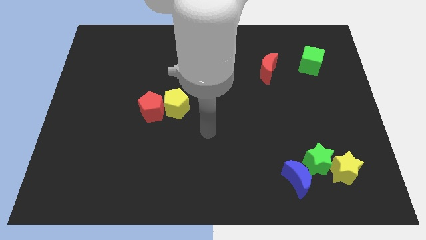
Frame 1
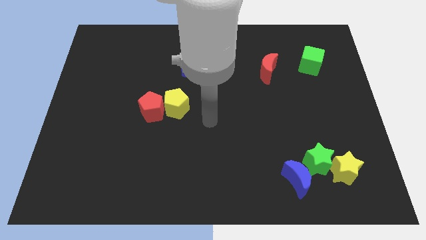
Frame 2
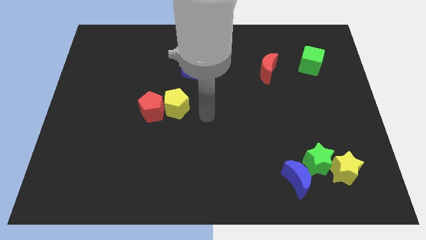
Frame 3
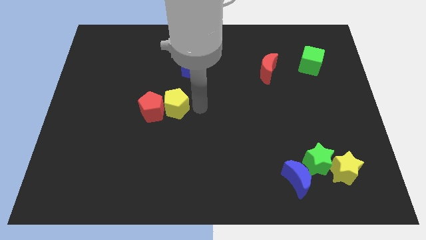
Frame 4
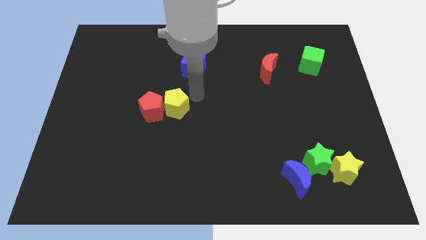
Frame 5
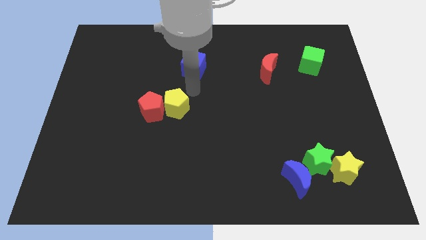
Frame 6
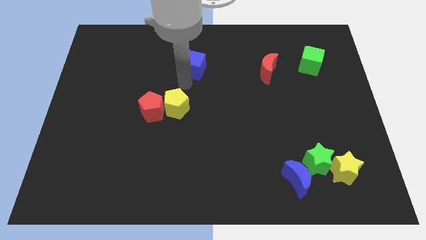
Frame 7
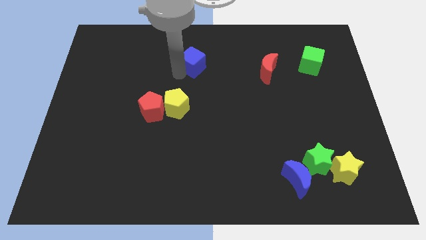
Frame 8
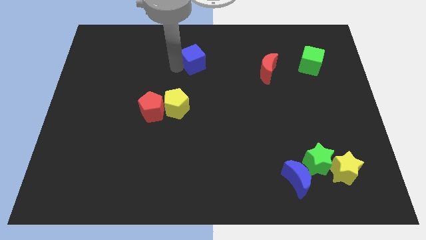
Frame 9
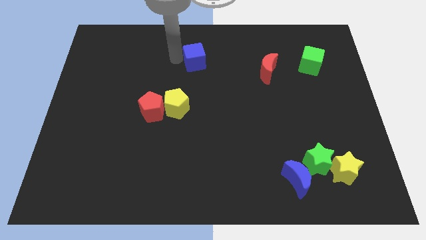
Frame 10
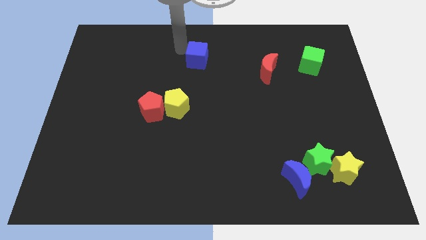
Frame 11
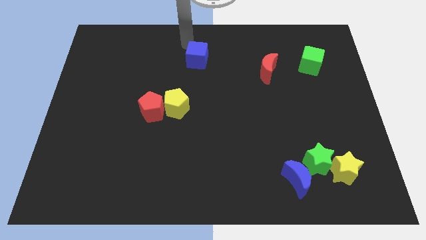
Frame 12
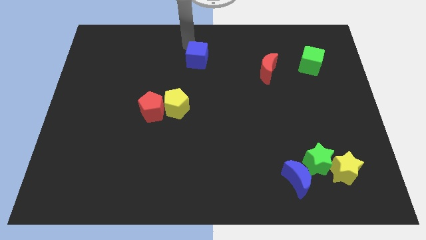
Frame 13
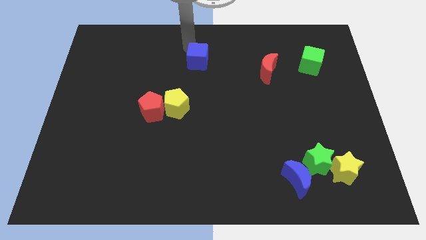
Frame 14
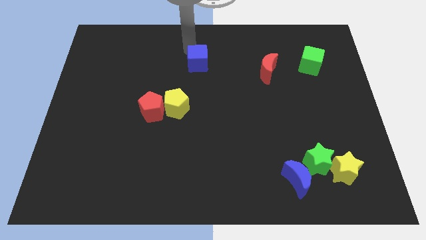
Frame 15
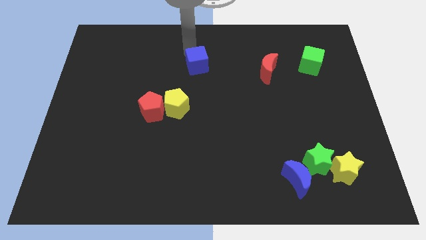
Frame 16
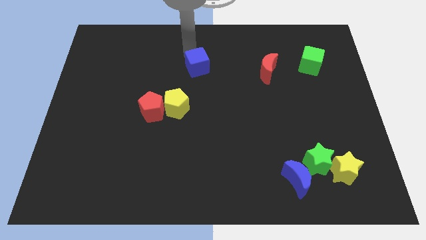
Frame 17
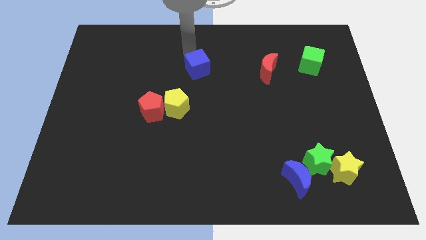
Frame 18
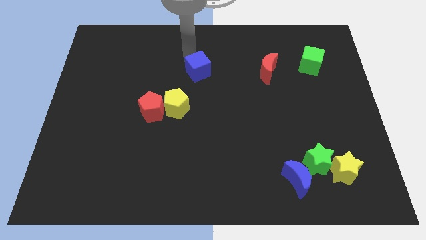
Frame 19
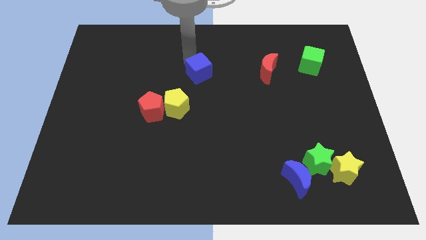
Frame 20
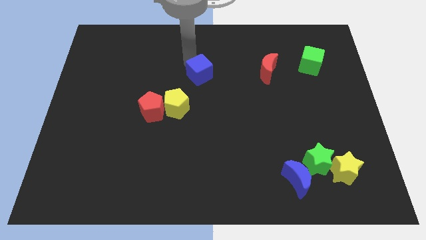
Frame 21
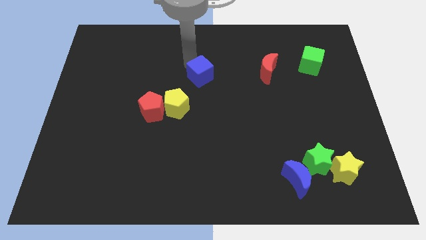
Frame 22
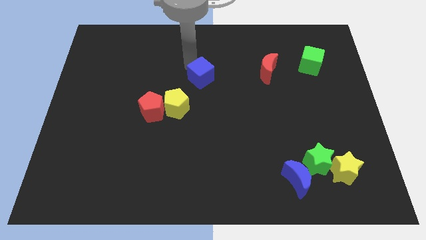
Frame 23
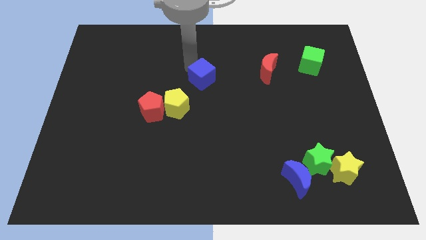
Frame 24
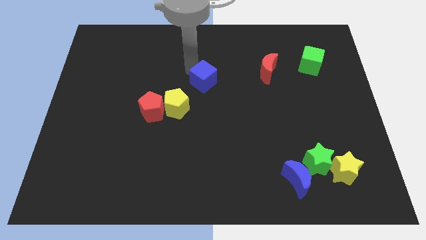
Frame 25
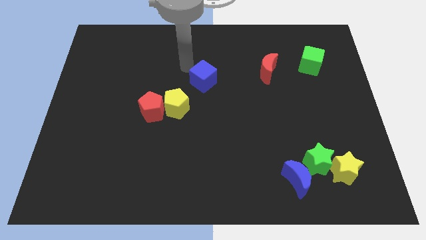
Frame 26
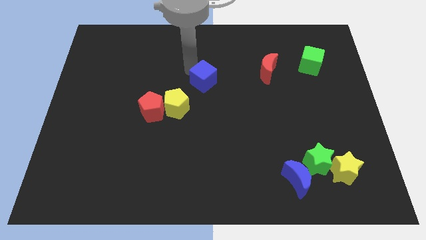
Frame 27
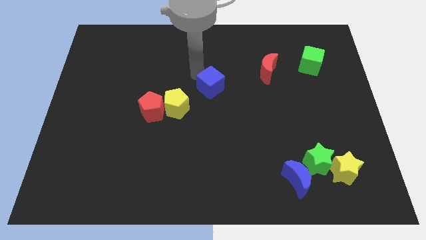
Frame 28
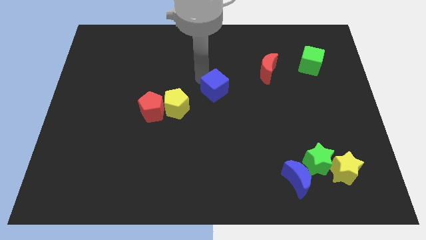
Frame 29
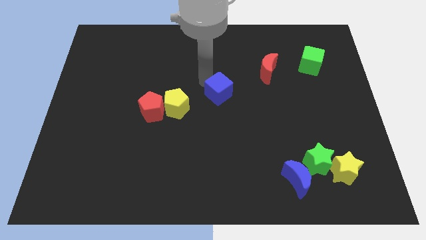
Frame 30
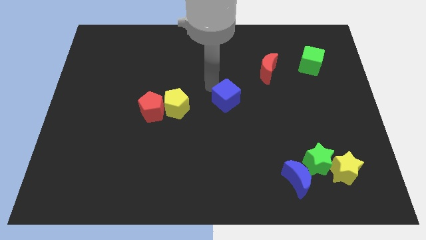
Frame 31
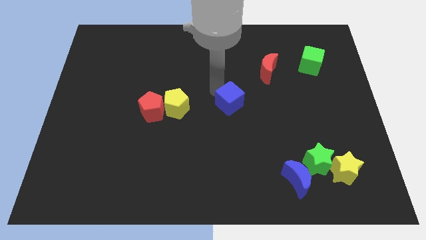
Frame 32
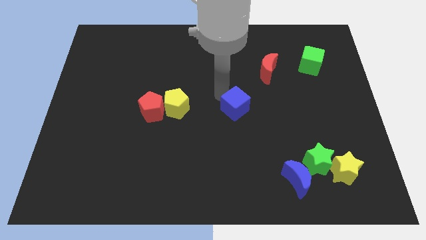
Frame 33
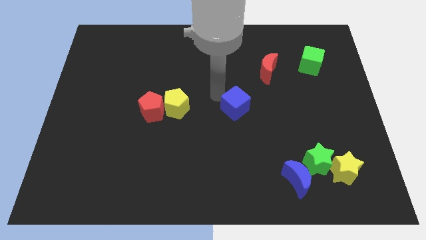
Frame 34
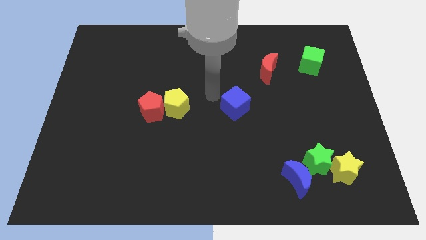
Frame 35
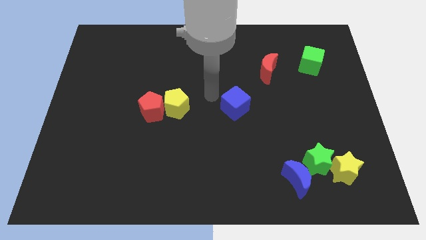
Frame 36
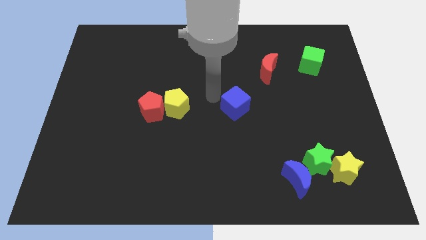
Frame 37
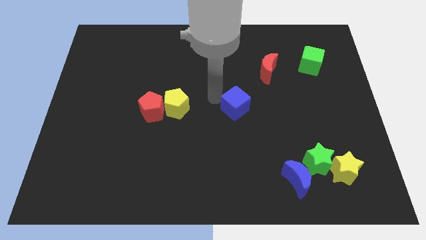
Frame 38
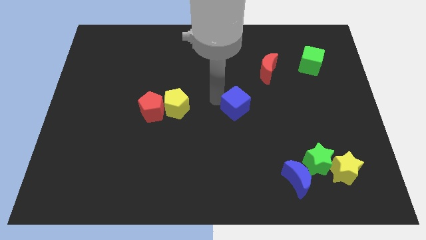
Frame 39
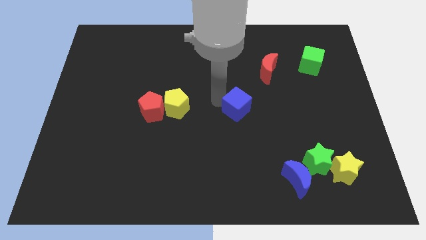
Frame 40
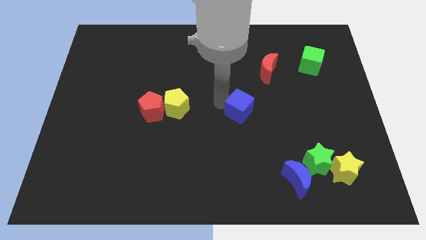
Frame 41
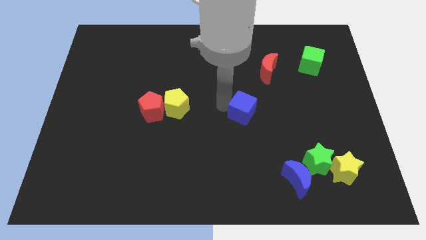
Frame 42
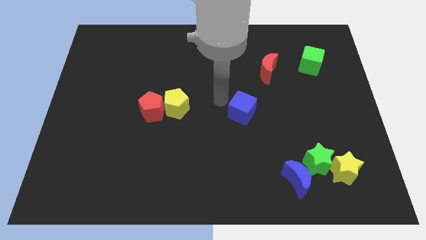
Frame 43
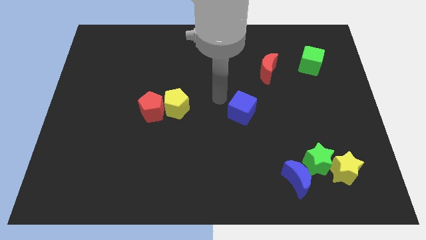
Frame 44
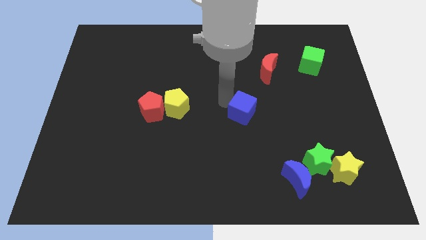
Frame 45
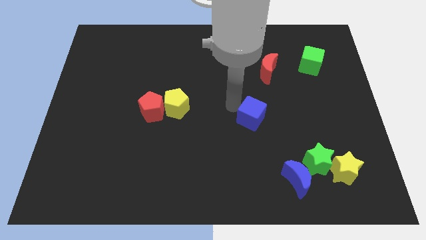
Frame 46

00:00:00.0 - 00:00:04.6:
move the blue cube downwards and right diagonally

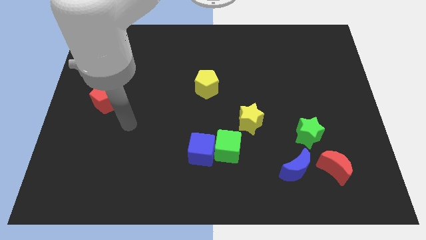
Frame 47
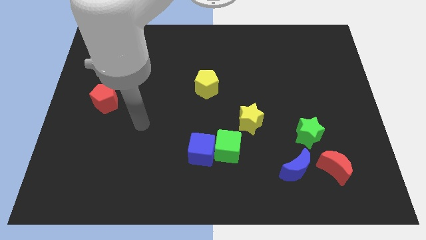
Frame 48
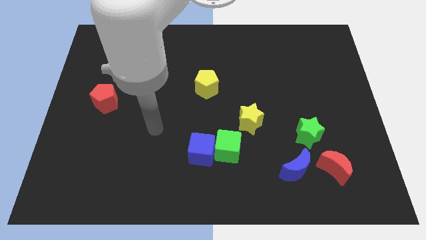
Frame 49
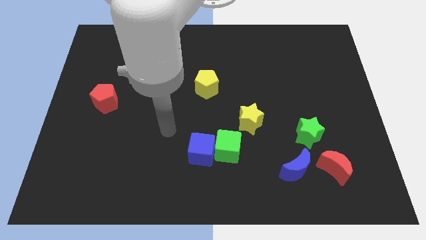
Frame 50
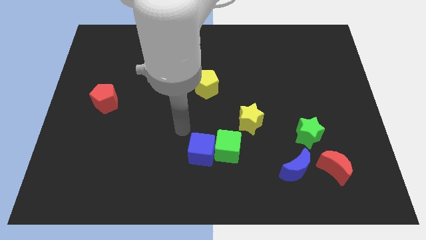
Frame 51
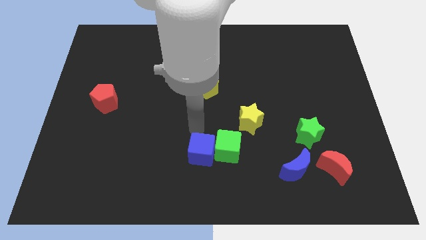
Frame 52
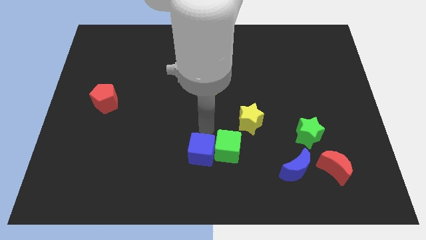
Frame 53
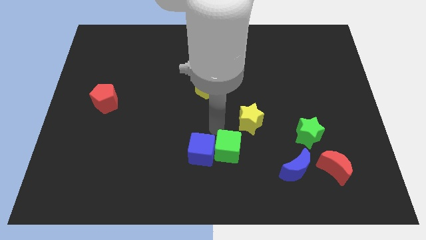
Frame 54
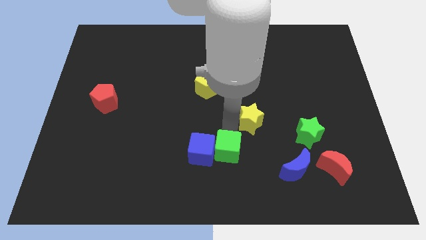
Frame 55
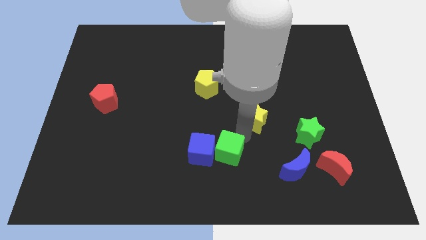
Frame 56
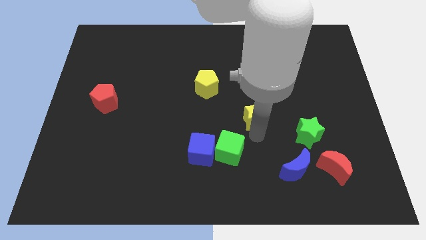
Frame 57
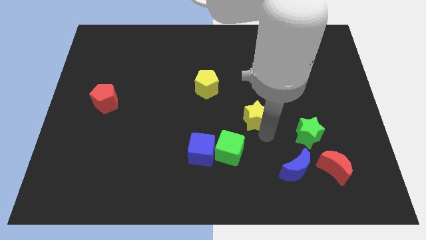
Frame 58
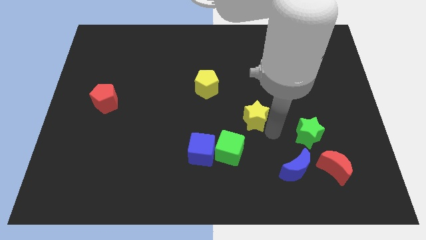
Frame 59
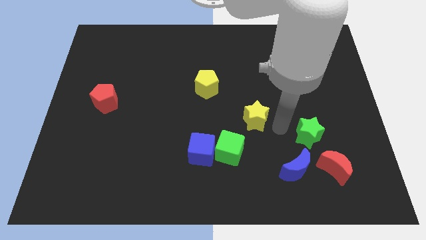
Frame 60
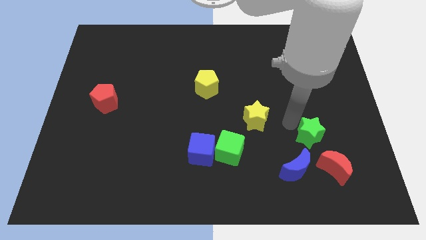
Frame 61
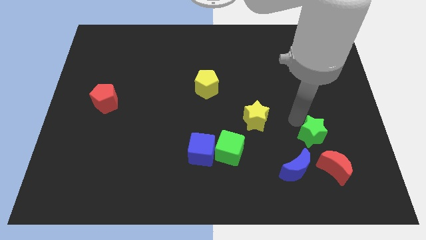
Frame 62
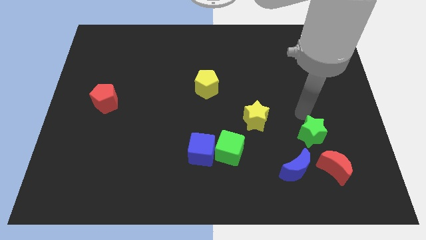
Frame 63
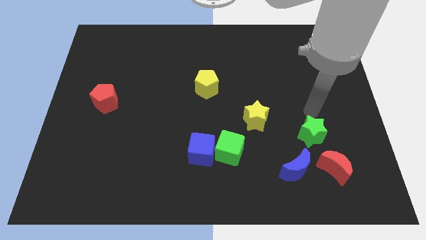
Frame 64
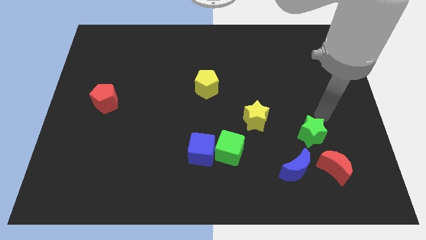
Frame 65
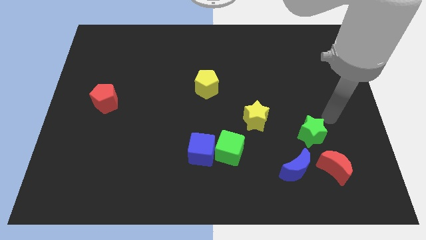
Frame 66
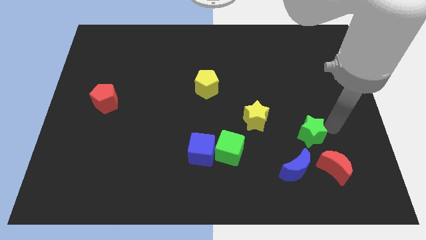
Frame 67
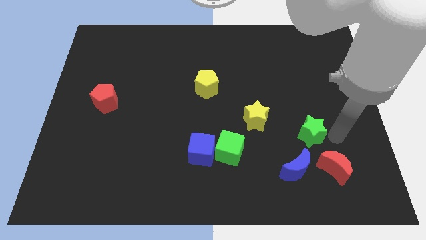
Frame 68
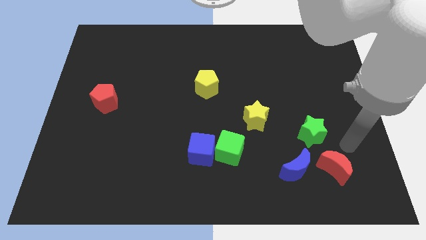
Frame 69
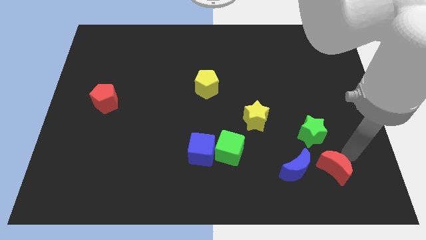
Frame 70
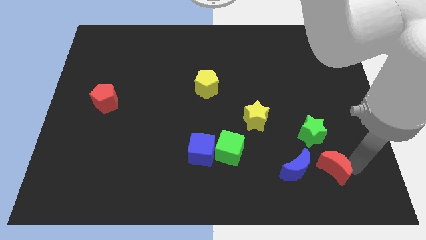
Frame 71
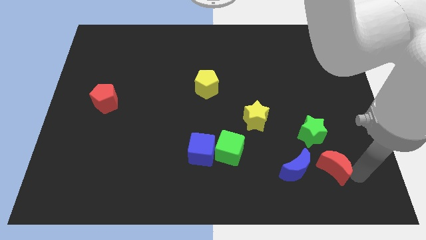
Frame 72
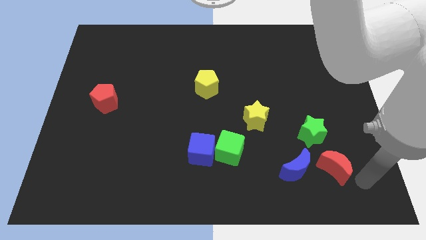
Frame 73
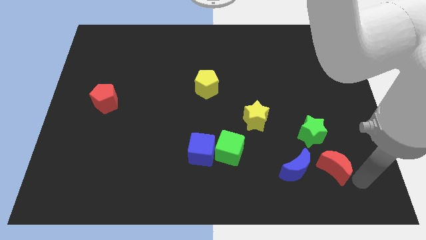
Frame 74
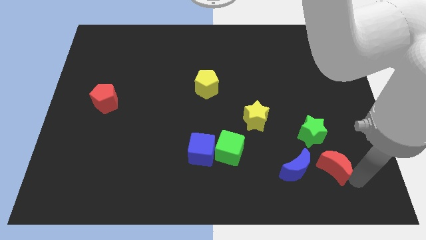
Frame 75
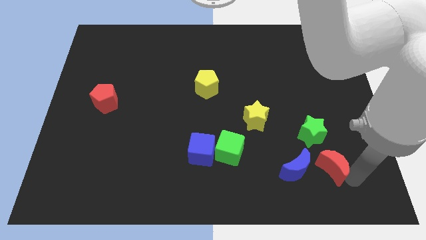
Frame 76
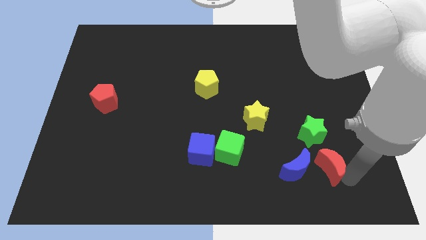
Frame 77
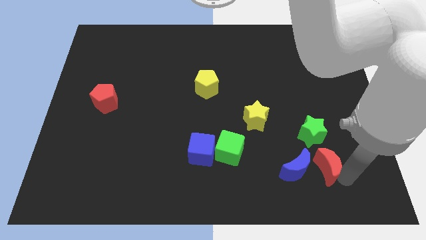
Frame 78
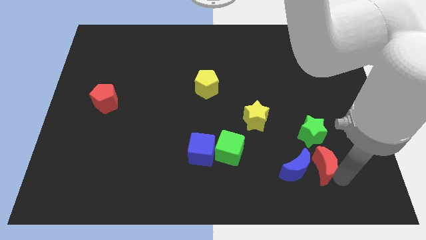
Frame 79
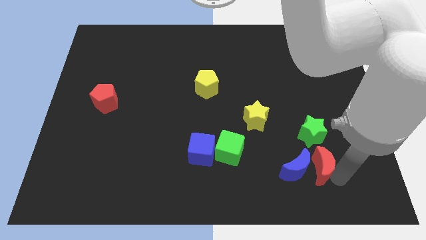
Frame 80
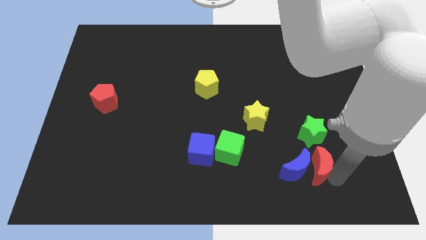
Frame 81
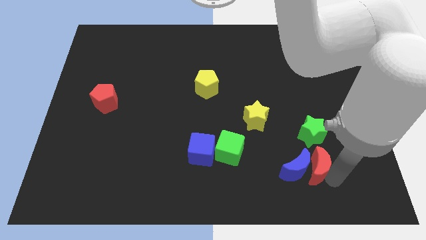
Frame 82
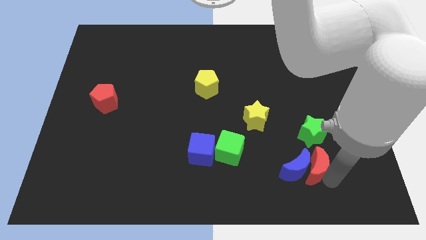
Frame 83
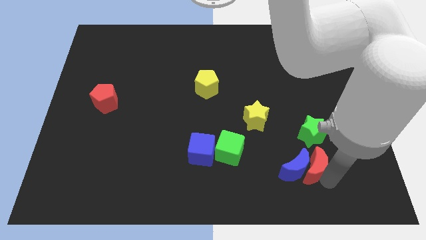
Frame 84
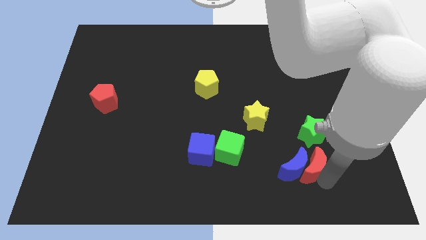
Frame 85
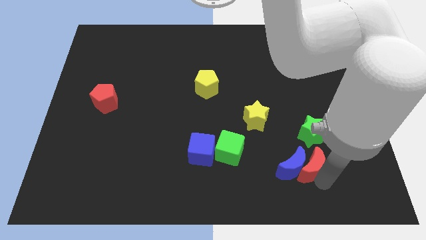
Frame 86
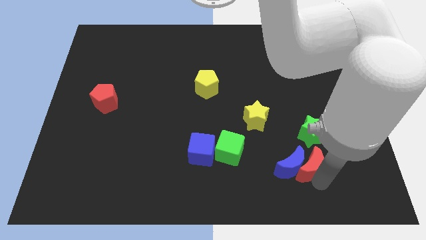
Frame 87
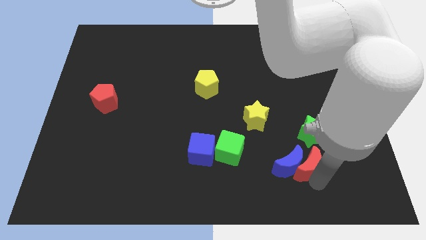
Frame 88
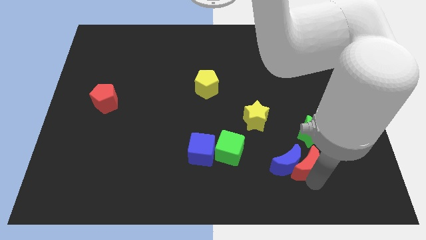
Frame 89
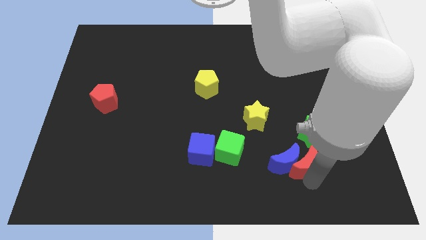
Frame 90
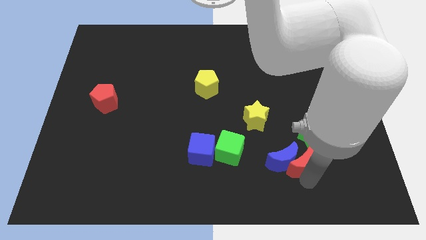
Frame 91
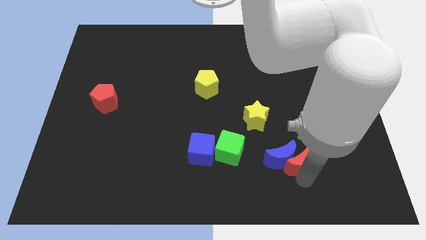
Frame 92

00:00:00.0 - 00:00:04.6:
slightly slide the red moon left
